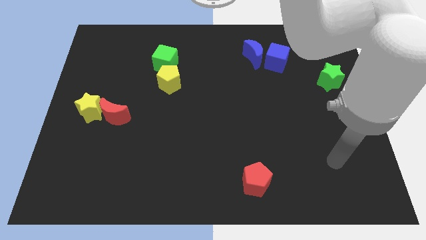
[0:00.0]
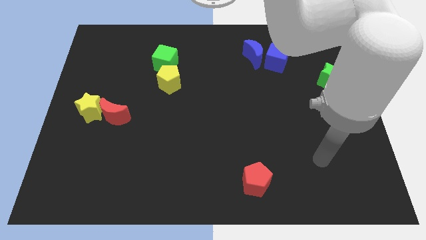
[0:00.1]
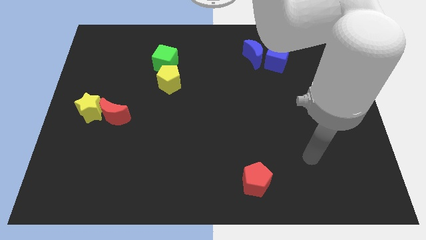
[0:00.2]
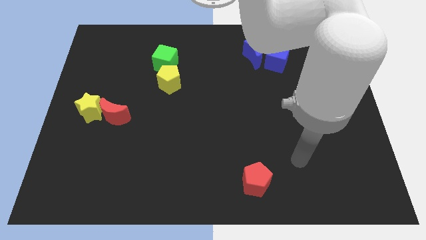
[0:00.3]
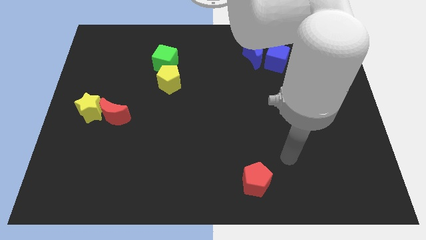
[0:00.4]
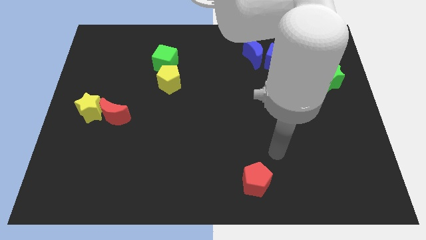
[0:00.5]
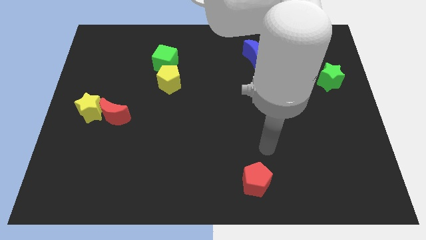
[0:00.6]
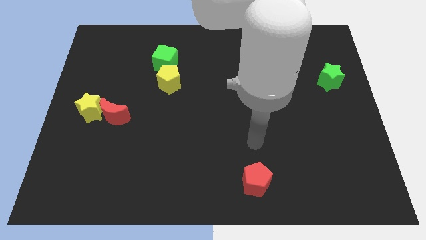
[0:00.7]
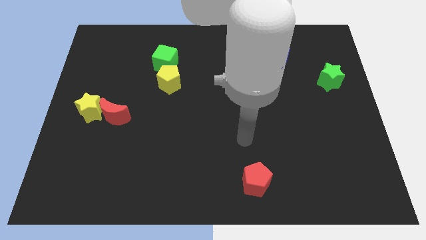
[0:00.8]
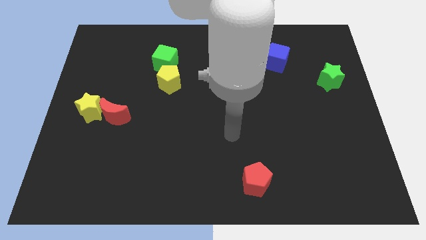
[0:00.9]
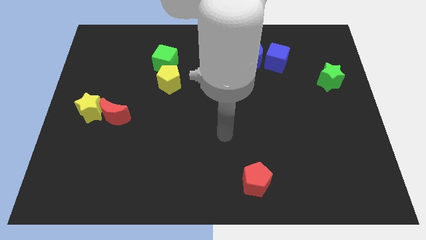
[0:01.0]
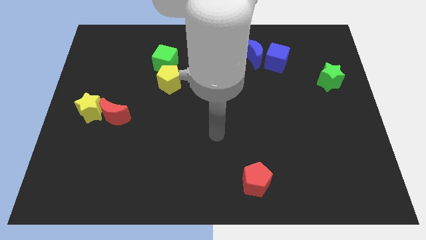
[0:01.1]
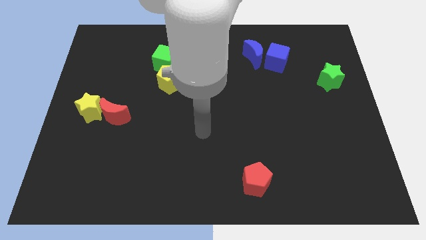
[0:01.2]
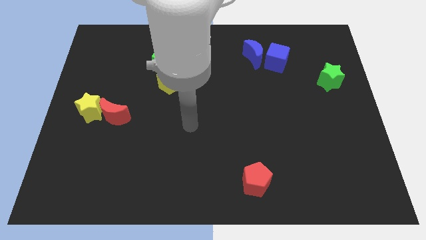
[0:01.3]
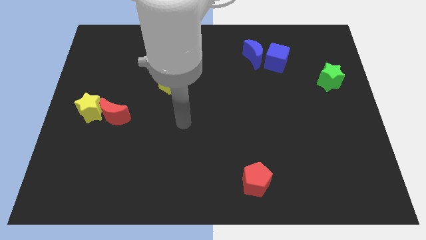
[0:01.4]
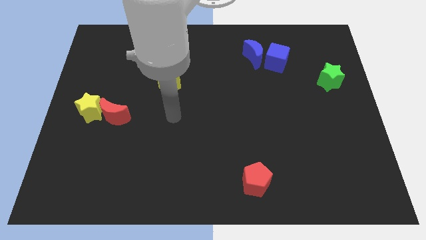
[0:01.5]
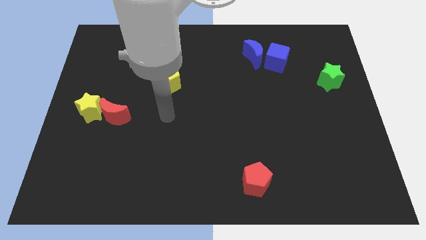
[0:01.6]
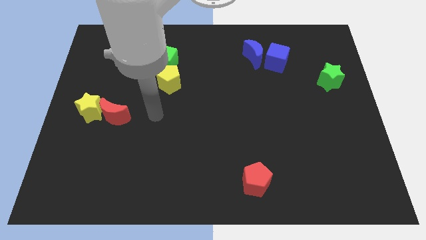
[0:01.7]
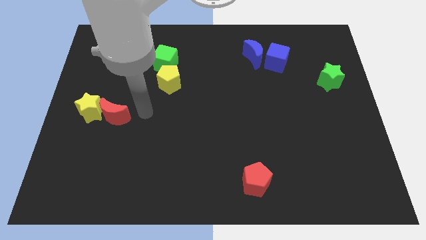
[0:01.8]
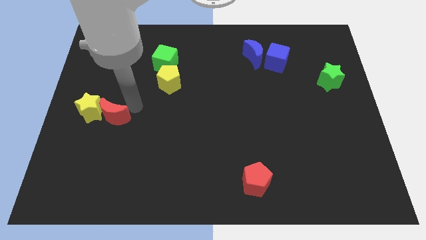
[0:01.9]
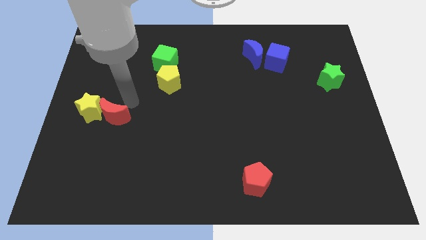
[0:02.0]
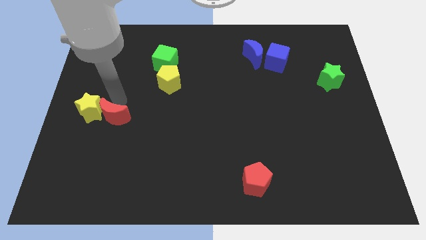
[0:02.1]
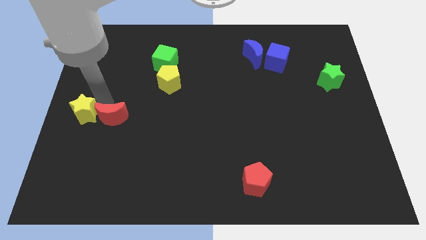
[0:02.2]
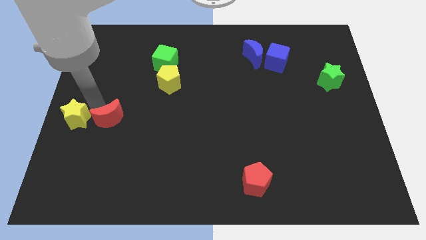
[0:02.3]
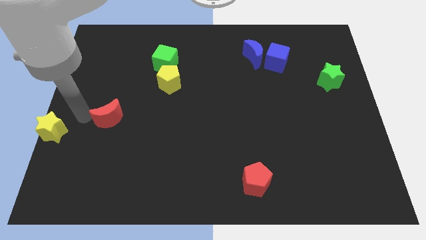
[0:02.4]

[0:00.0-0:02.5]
move the red moon away from the yellow star

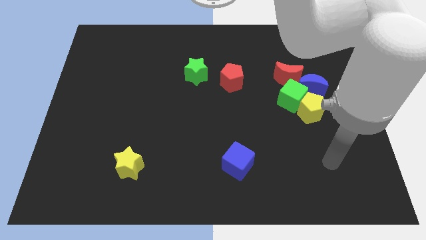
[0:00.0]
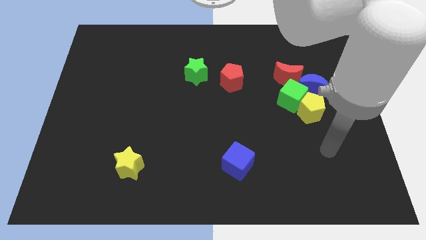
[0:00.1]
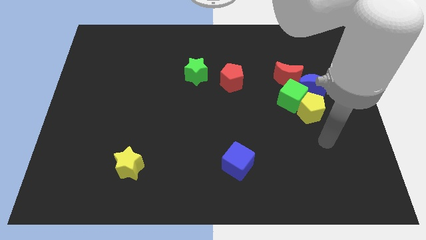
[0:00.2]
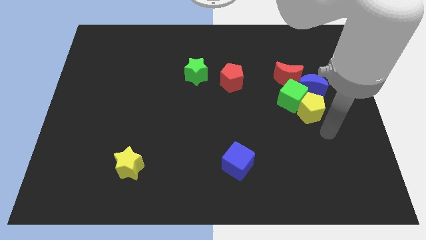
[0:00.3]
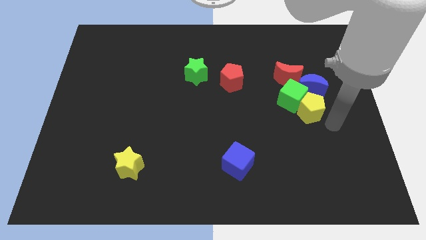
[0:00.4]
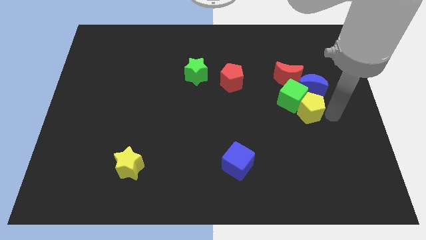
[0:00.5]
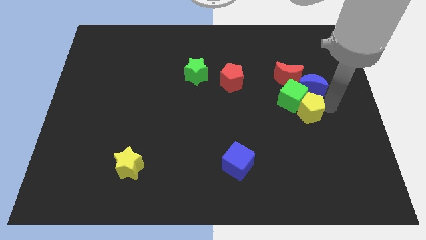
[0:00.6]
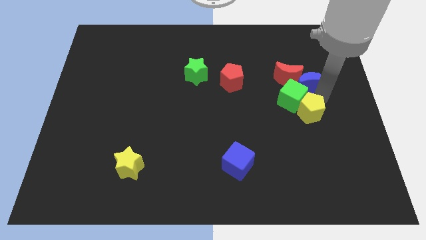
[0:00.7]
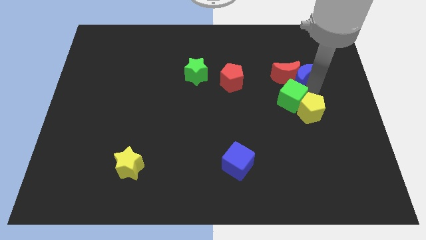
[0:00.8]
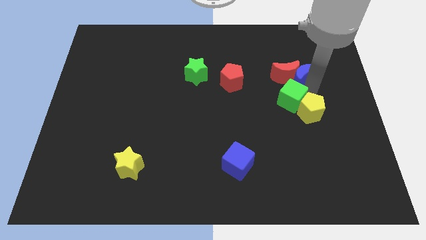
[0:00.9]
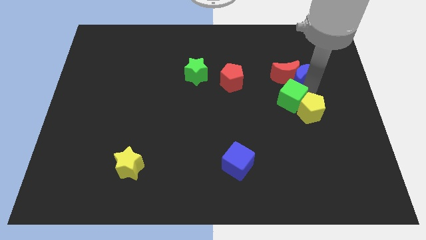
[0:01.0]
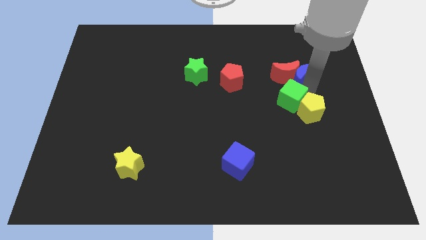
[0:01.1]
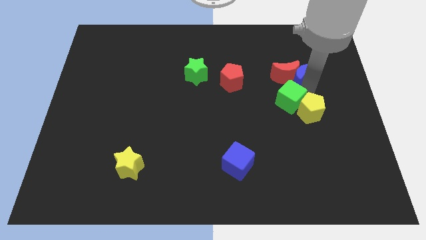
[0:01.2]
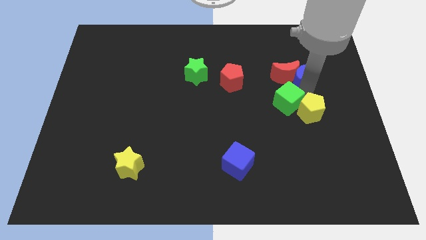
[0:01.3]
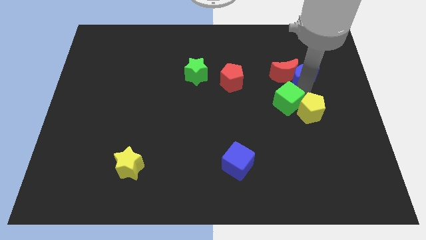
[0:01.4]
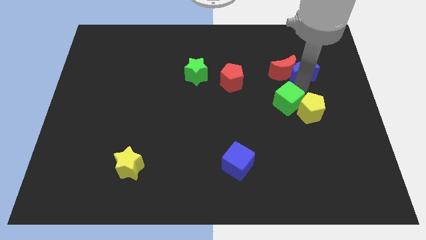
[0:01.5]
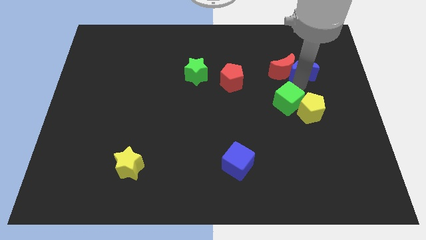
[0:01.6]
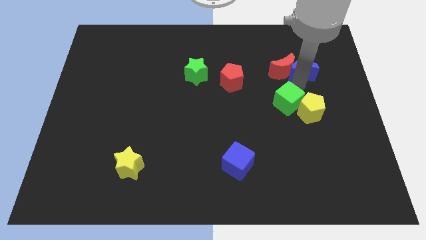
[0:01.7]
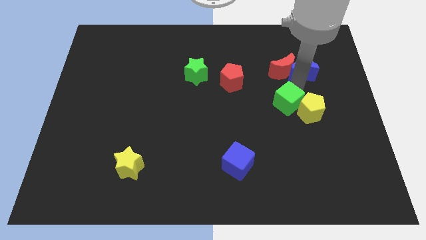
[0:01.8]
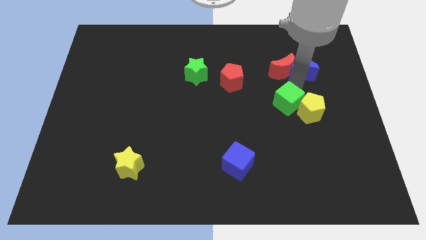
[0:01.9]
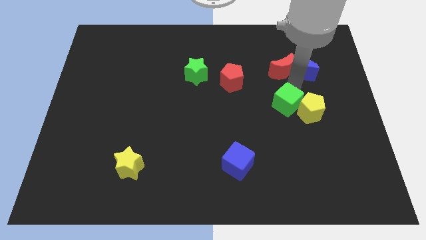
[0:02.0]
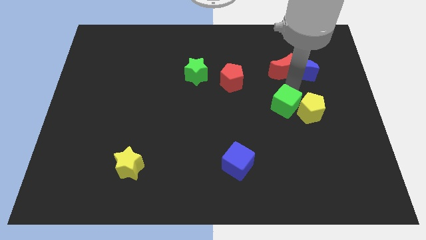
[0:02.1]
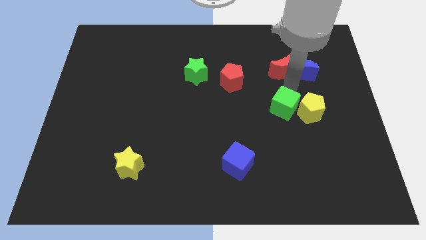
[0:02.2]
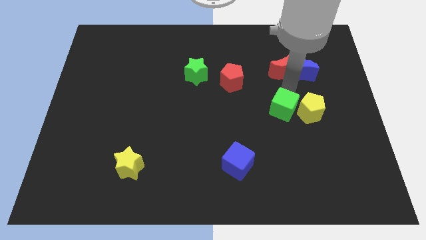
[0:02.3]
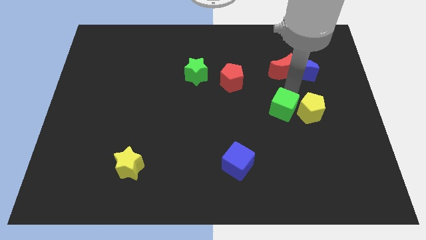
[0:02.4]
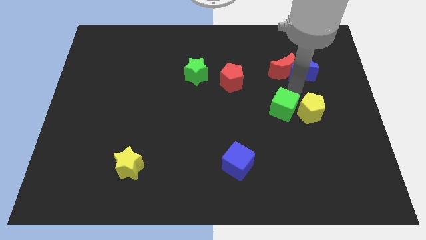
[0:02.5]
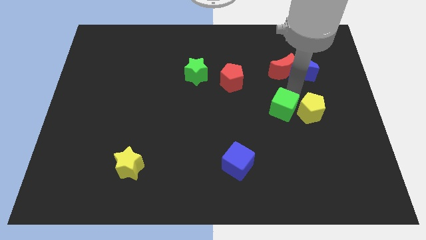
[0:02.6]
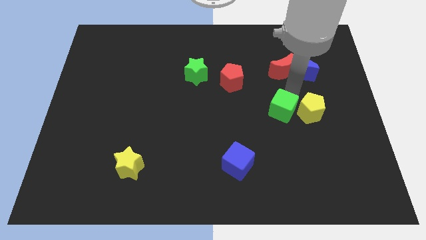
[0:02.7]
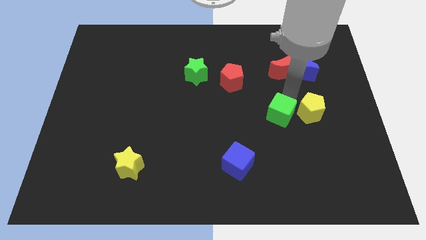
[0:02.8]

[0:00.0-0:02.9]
move the green cube away from the clump

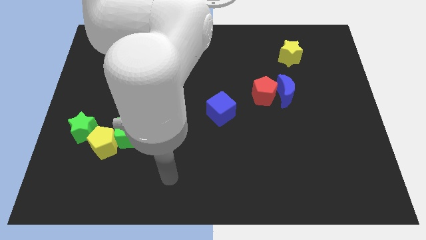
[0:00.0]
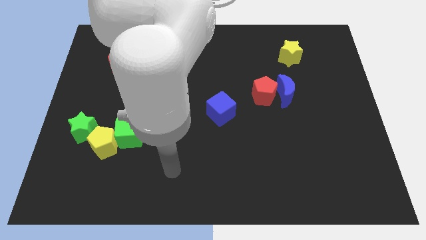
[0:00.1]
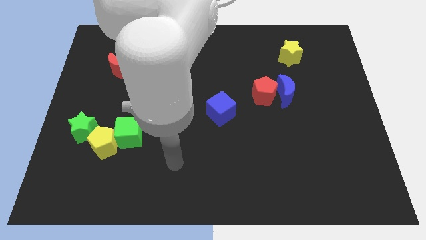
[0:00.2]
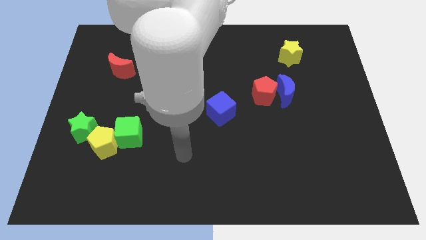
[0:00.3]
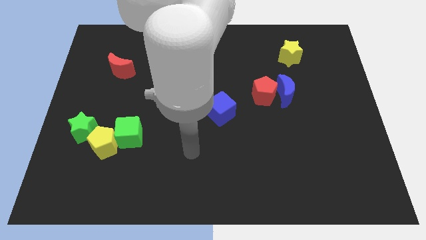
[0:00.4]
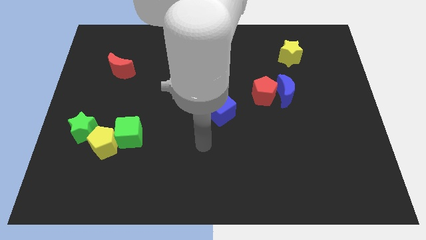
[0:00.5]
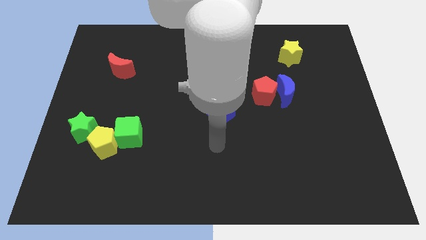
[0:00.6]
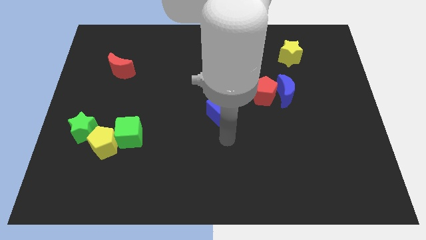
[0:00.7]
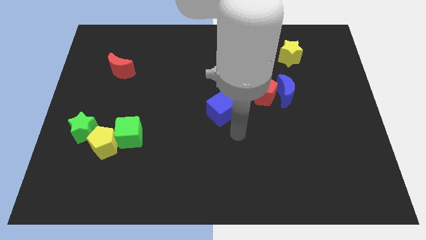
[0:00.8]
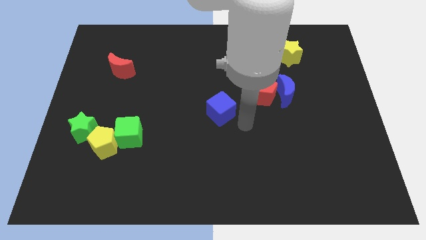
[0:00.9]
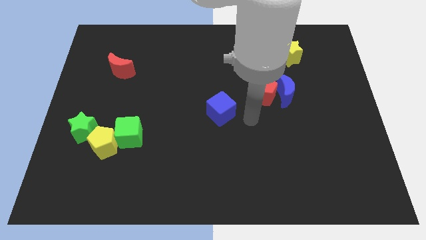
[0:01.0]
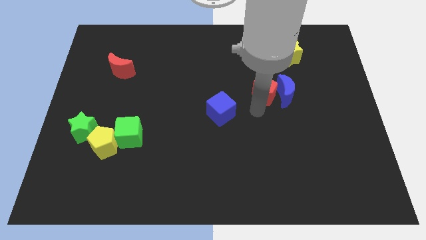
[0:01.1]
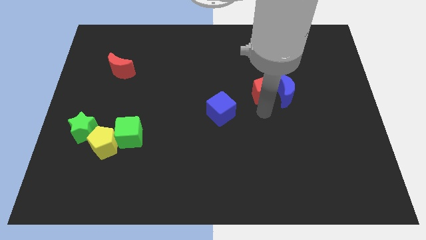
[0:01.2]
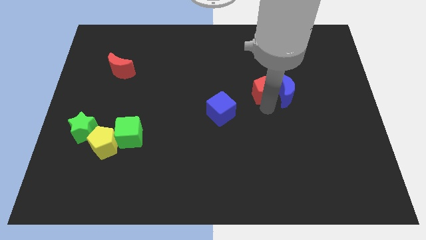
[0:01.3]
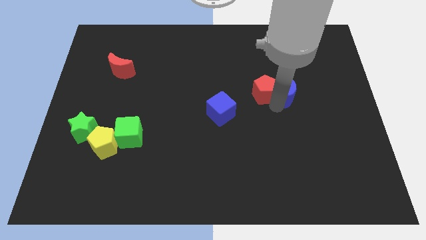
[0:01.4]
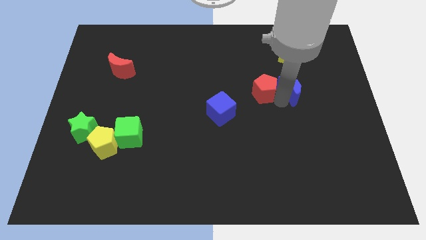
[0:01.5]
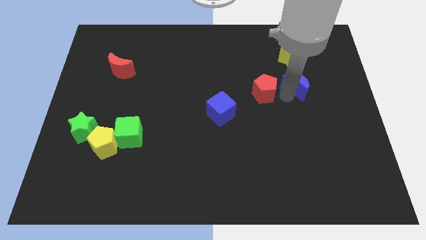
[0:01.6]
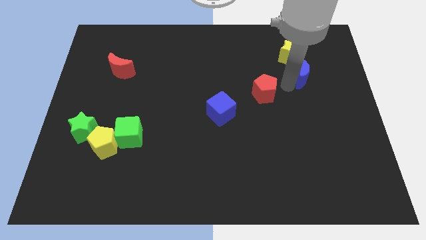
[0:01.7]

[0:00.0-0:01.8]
move the red pentagon away from the blue moon

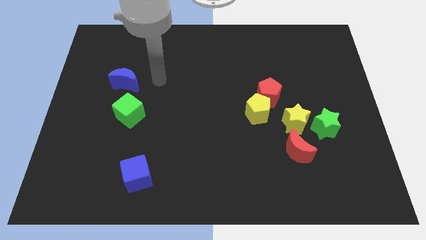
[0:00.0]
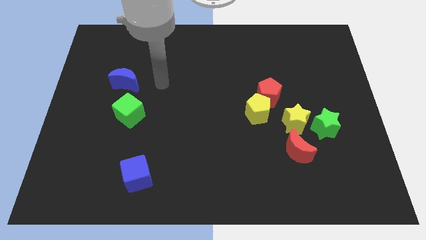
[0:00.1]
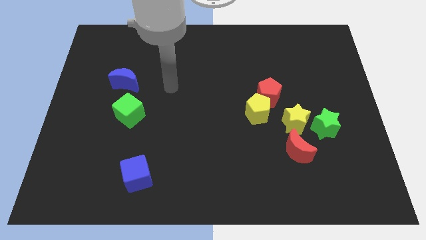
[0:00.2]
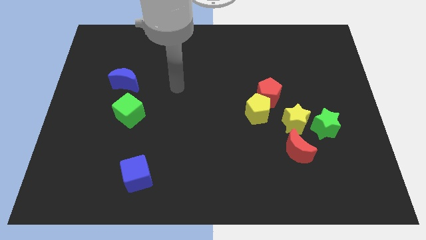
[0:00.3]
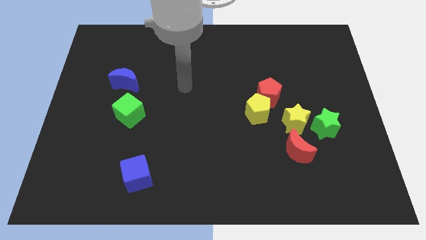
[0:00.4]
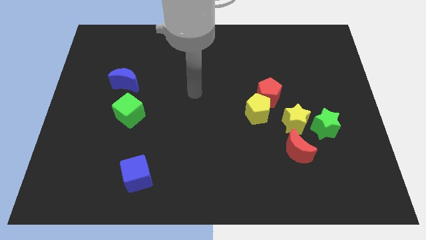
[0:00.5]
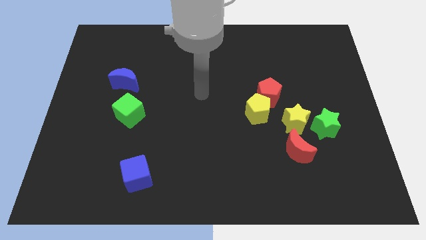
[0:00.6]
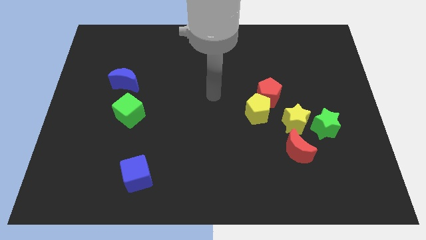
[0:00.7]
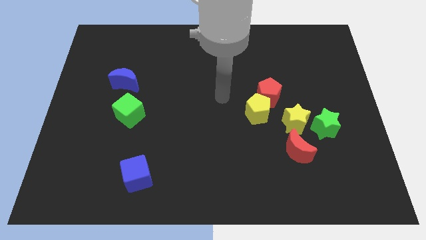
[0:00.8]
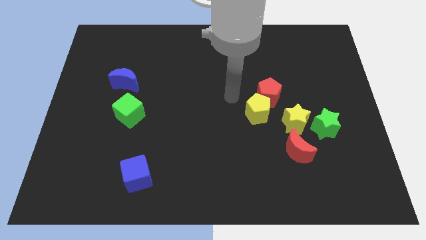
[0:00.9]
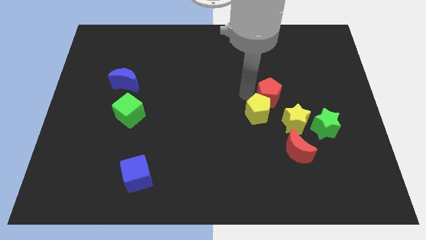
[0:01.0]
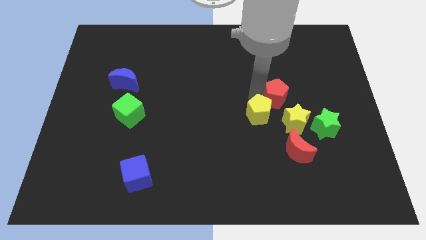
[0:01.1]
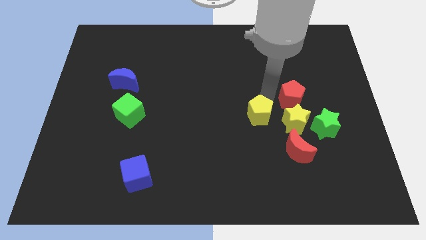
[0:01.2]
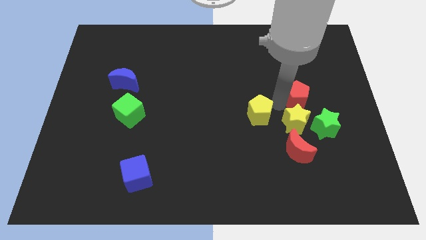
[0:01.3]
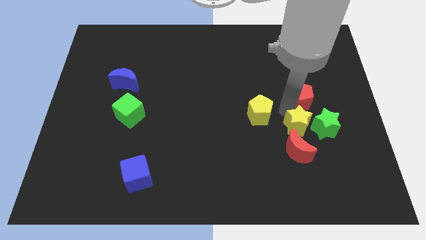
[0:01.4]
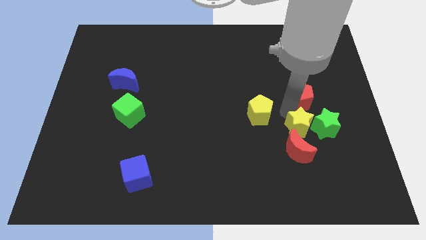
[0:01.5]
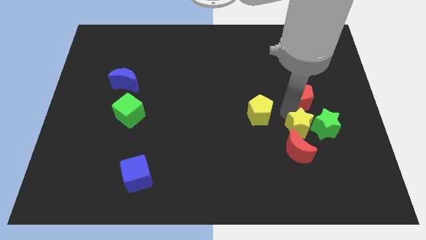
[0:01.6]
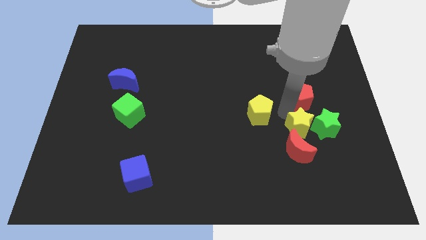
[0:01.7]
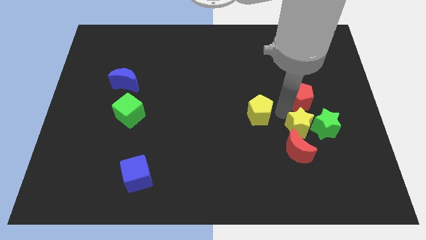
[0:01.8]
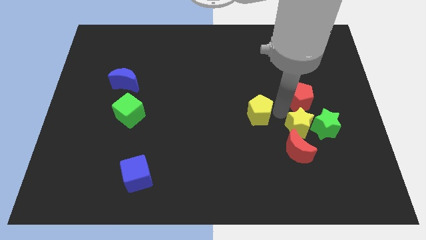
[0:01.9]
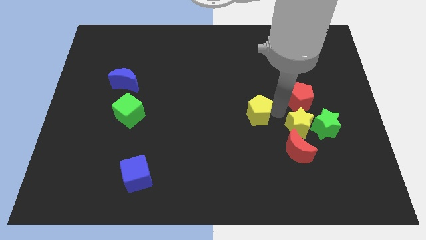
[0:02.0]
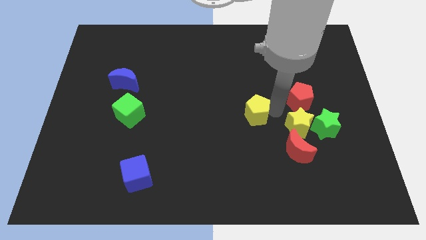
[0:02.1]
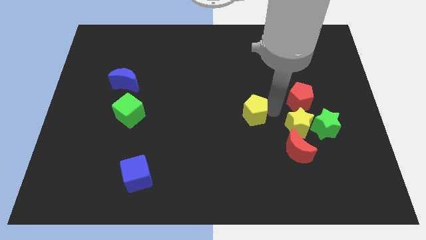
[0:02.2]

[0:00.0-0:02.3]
pull the yellow pentagon apart from the red pentagon and yellow star
